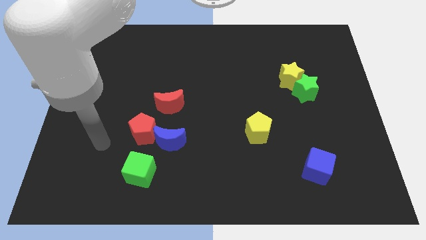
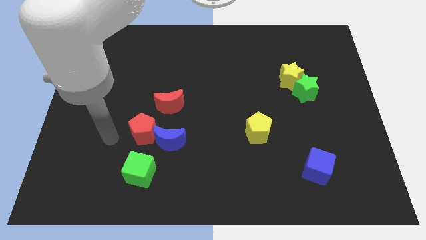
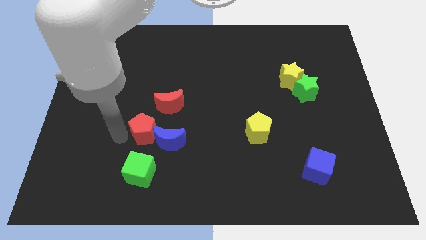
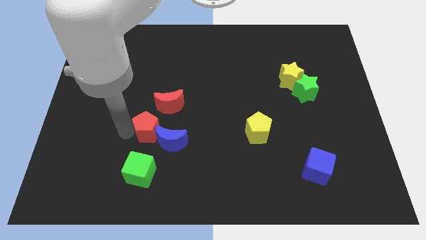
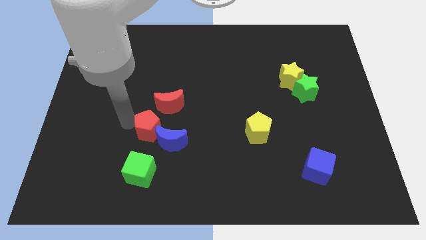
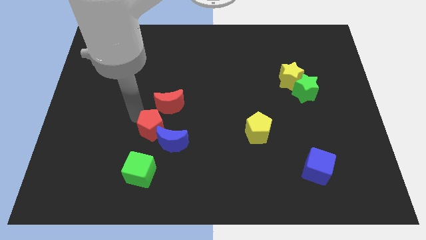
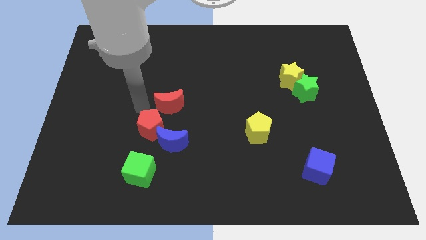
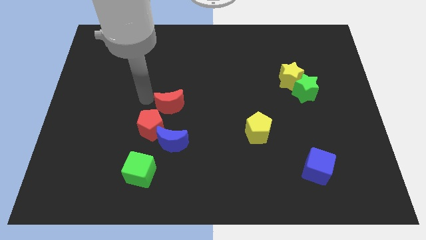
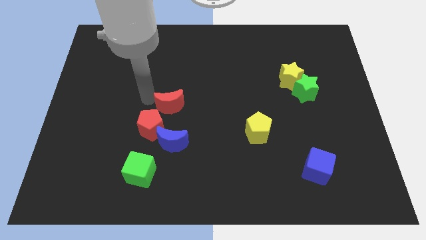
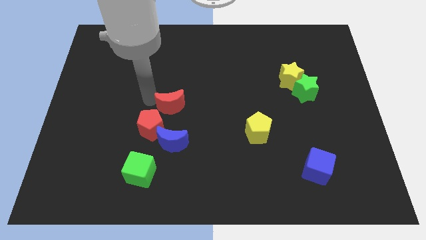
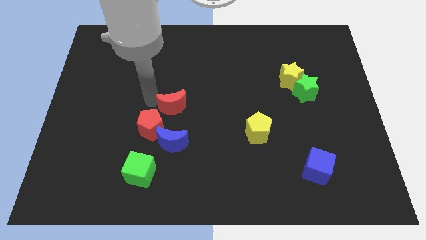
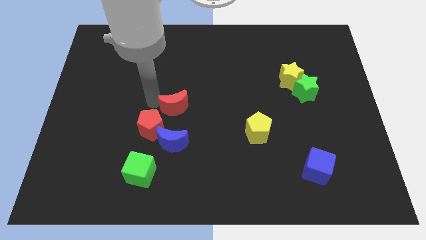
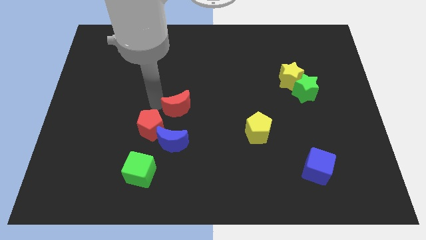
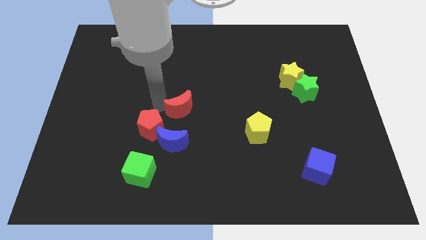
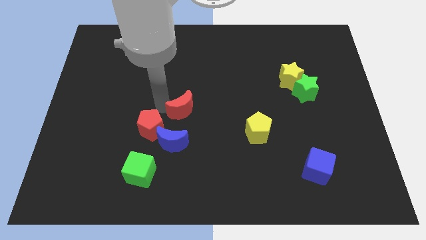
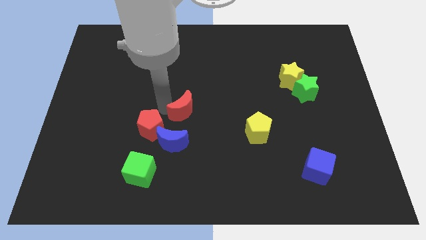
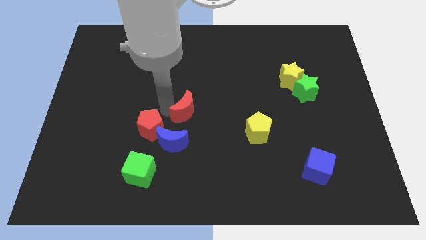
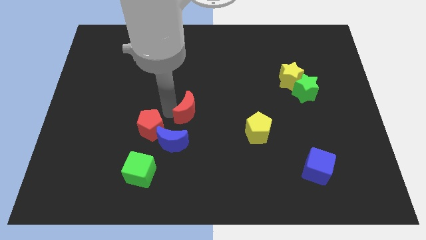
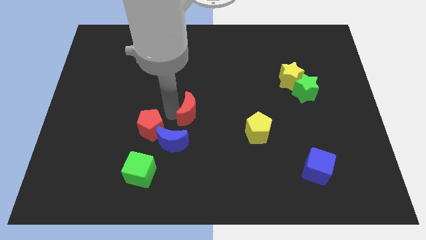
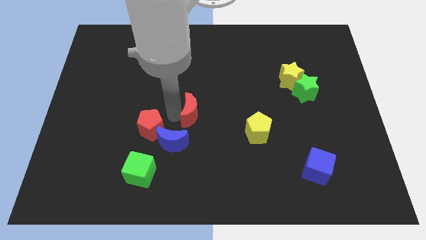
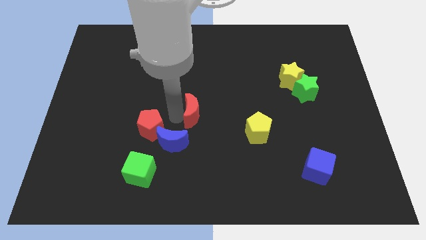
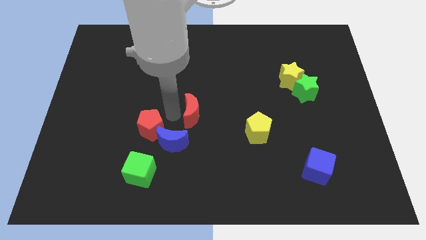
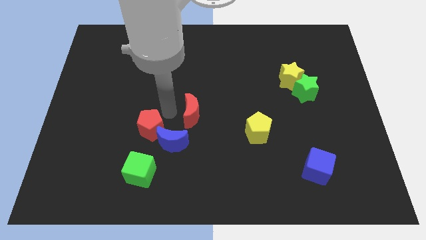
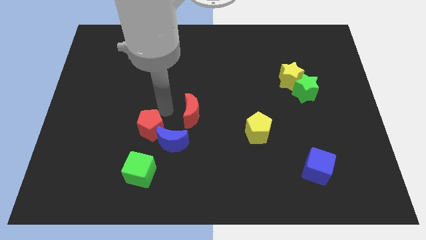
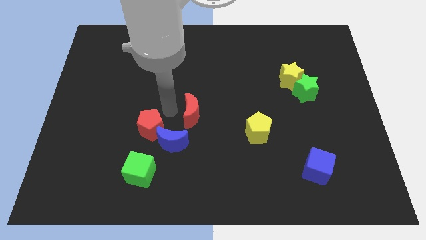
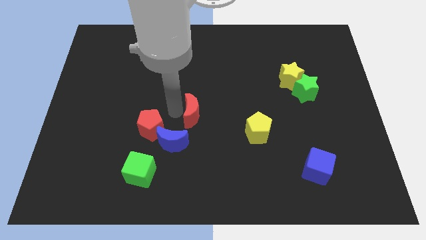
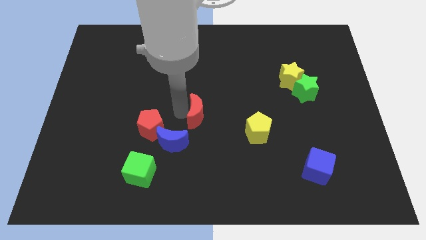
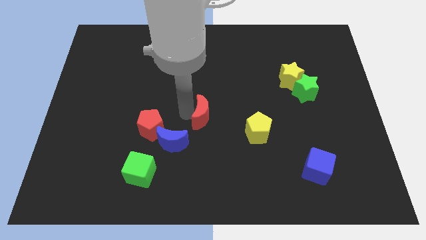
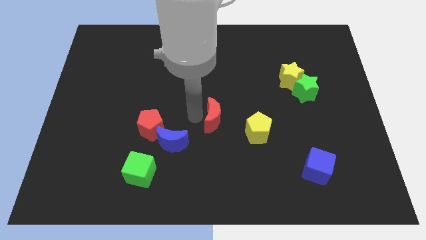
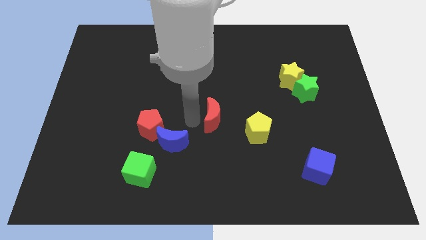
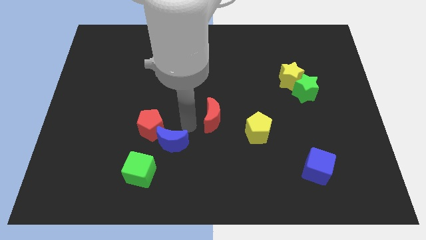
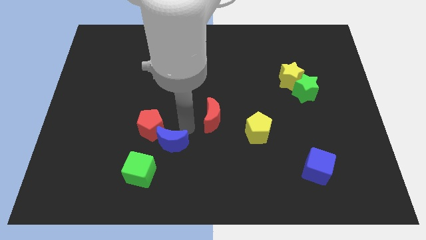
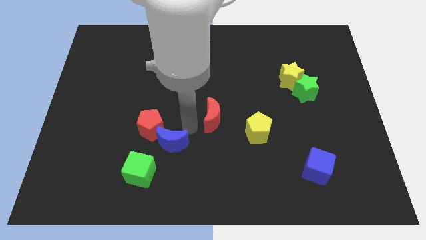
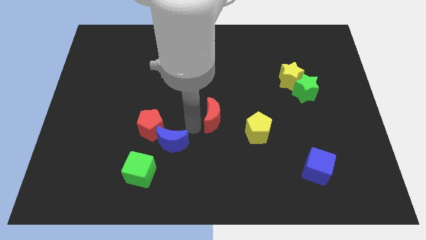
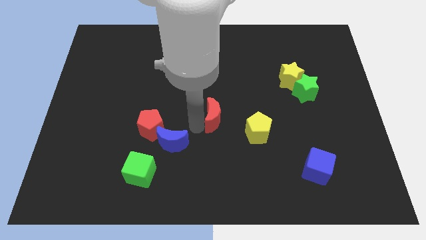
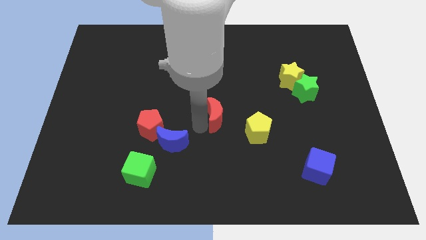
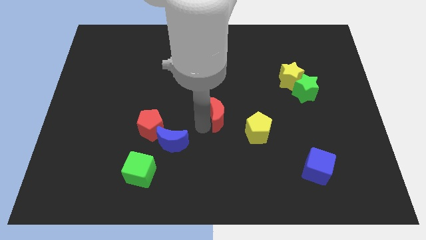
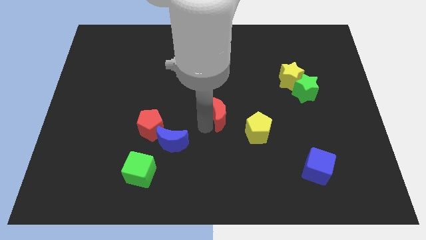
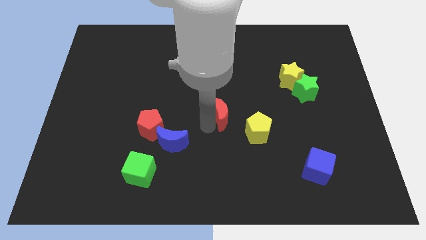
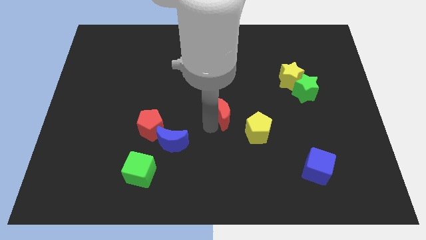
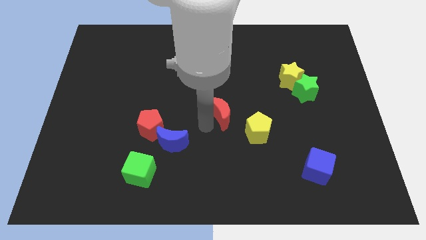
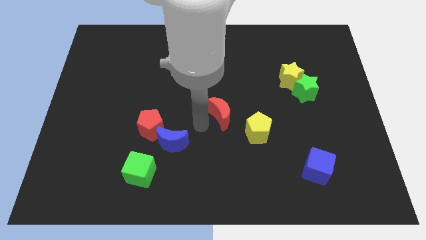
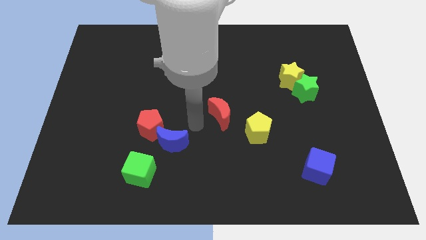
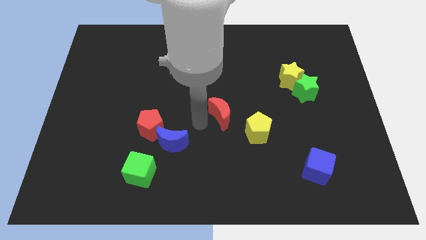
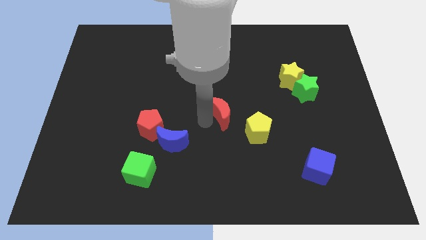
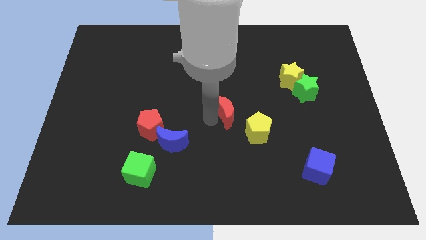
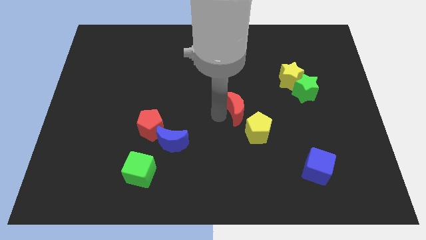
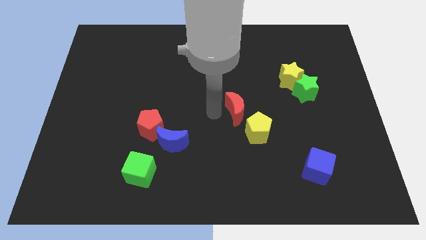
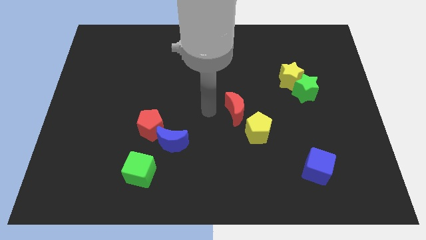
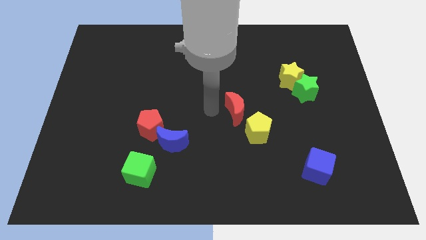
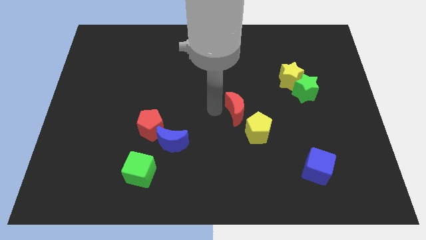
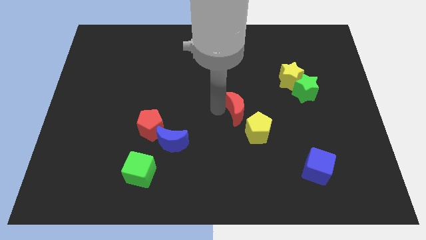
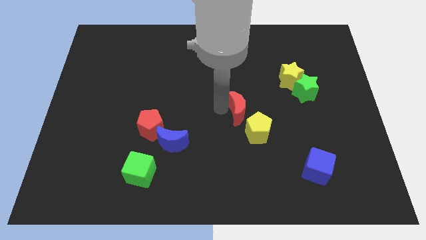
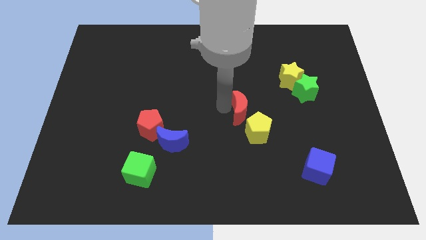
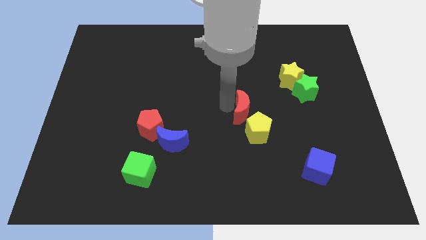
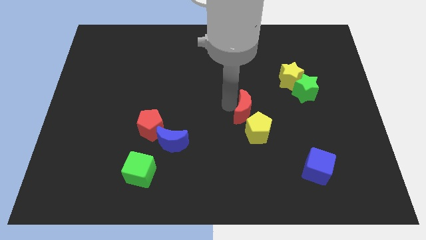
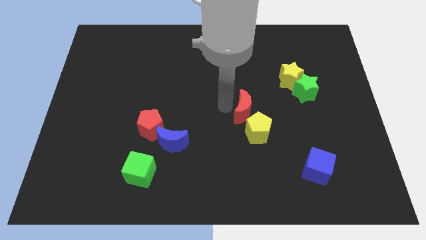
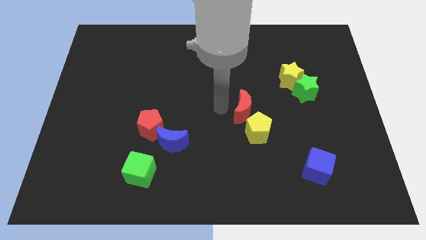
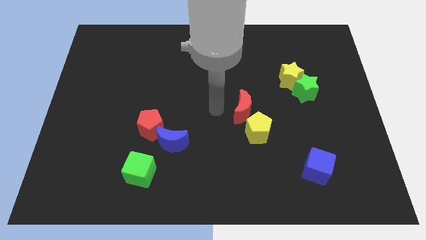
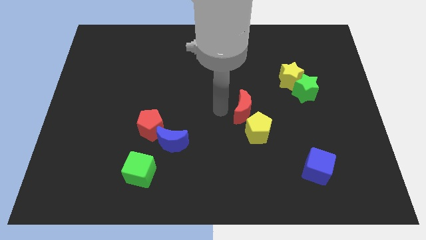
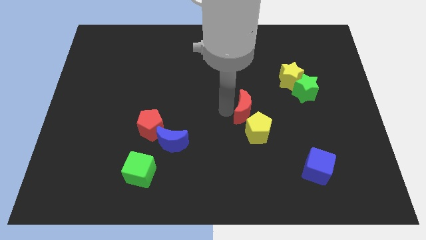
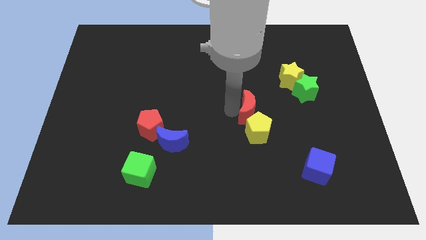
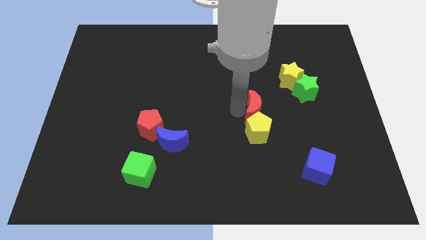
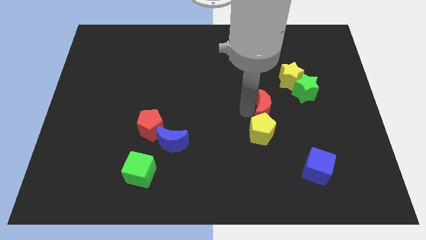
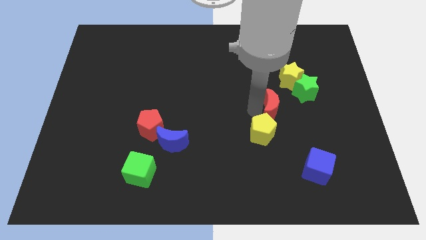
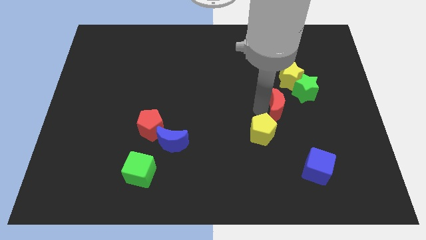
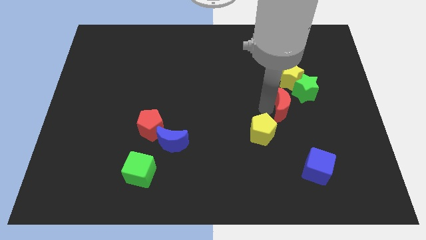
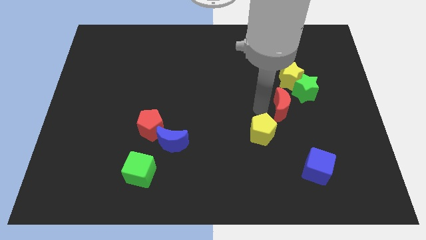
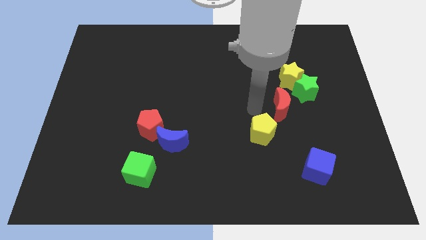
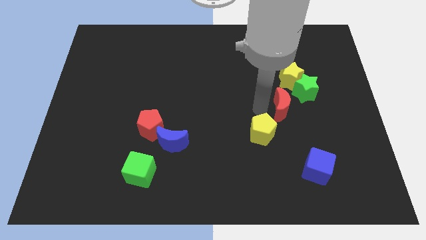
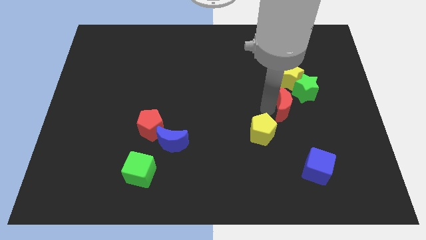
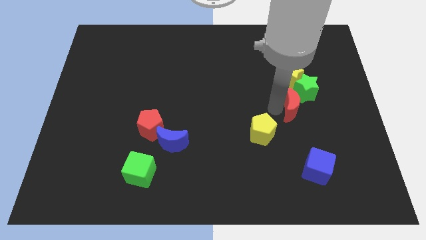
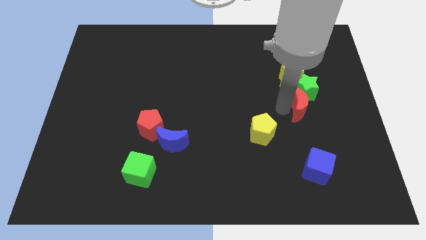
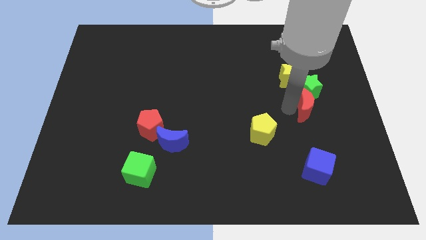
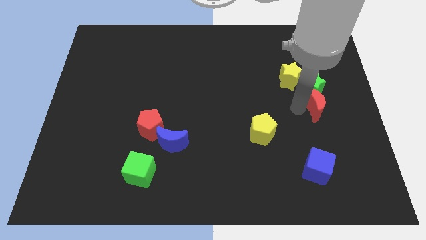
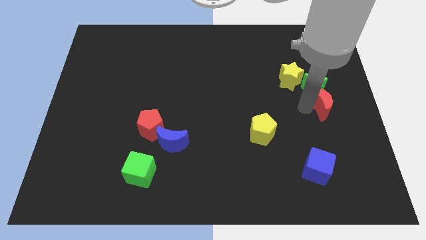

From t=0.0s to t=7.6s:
push the red moon to the right side
